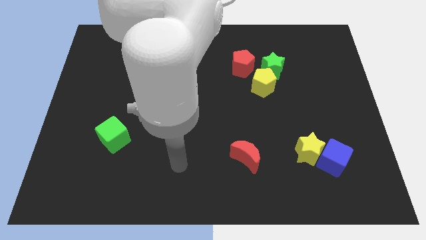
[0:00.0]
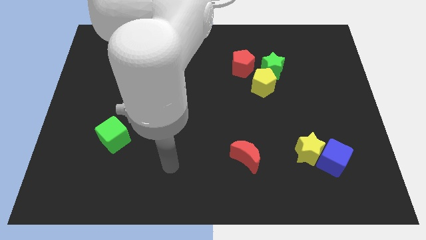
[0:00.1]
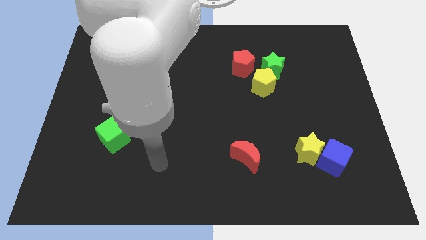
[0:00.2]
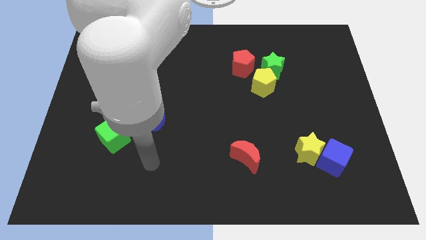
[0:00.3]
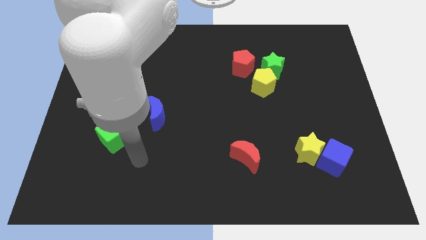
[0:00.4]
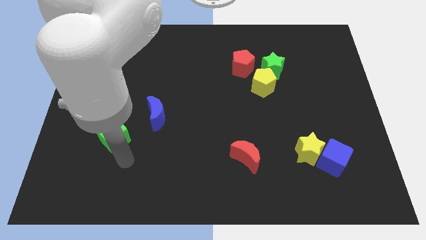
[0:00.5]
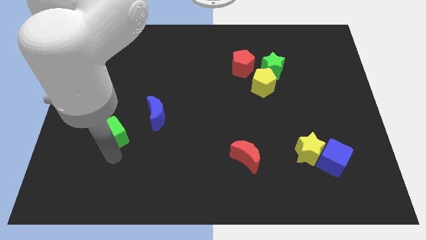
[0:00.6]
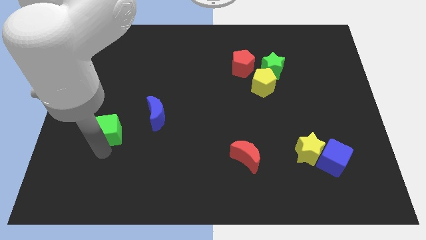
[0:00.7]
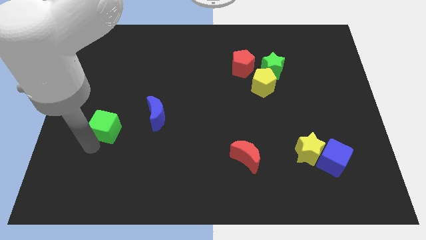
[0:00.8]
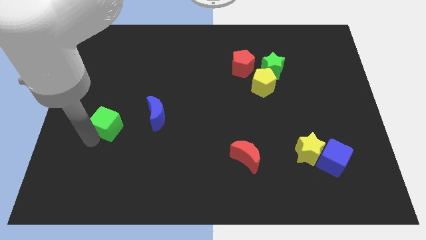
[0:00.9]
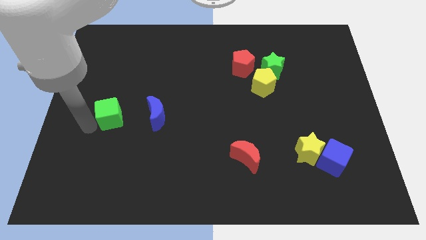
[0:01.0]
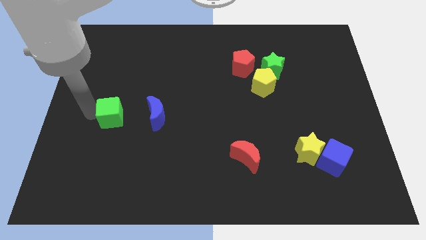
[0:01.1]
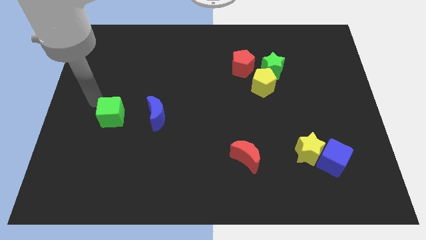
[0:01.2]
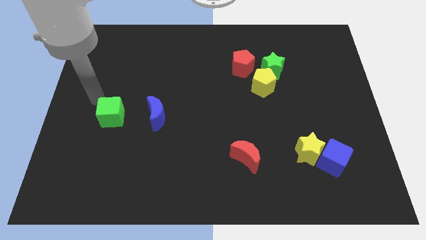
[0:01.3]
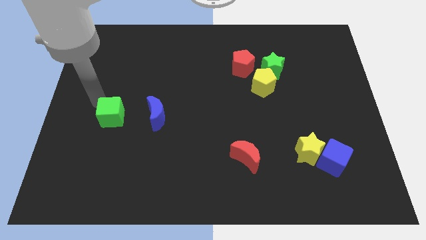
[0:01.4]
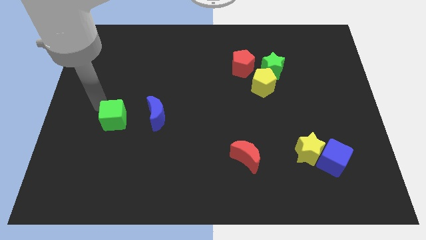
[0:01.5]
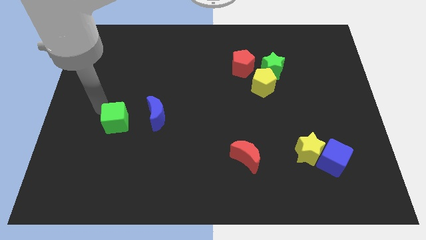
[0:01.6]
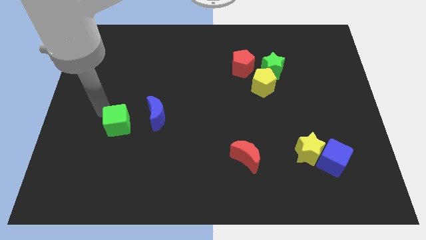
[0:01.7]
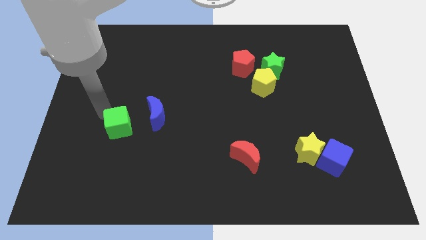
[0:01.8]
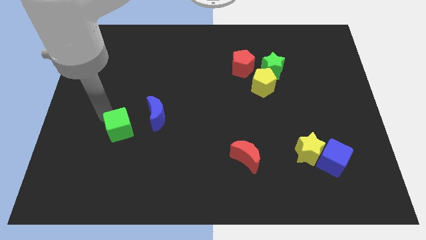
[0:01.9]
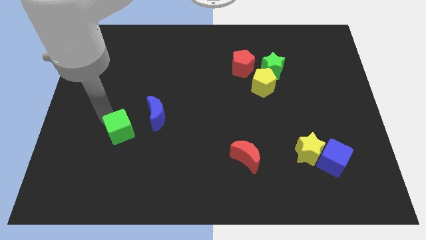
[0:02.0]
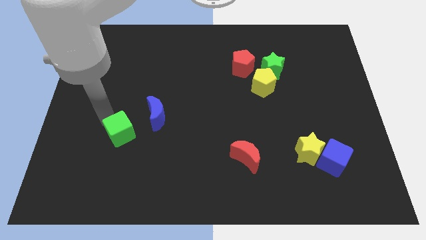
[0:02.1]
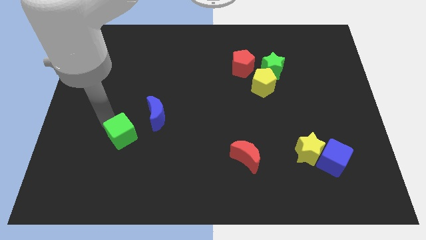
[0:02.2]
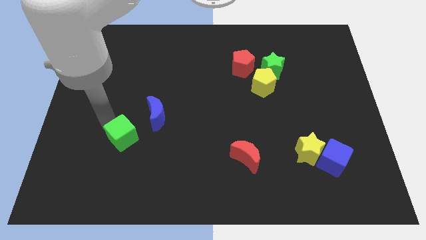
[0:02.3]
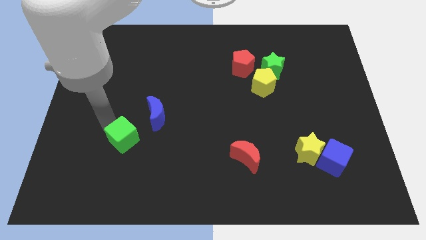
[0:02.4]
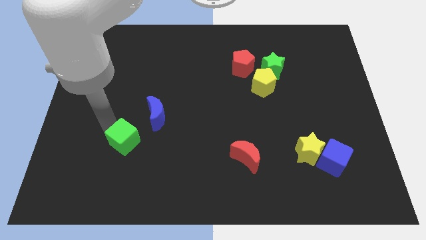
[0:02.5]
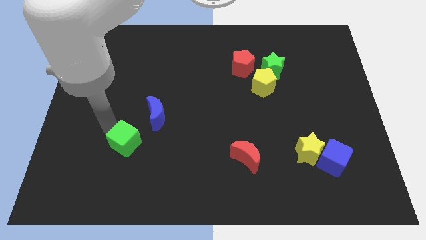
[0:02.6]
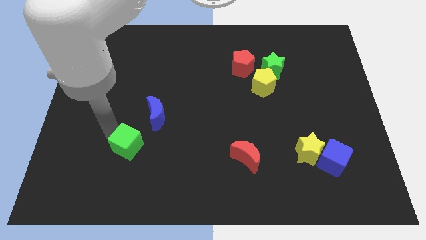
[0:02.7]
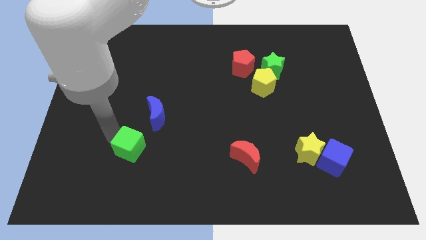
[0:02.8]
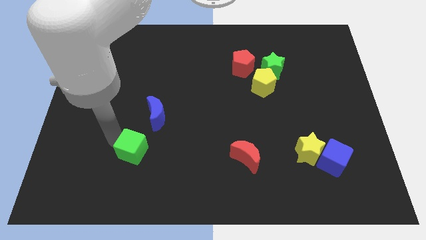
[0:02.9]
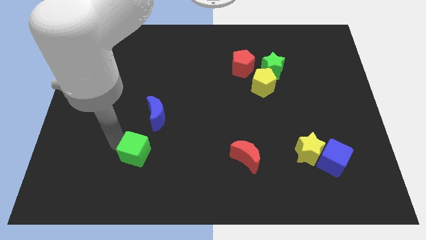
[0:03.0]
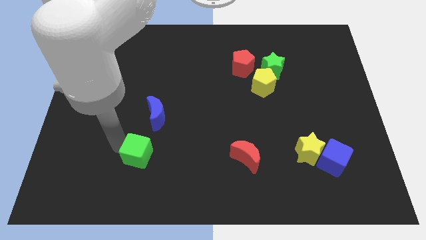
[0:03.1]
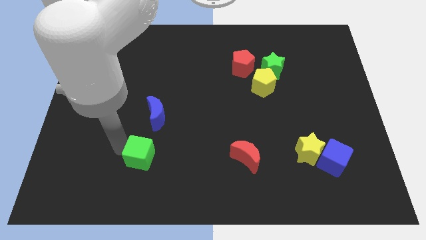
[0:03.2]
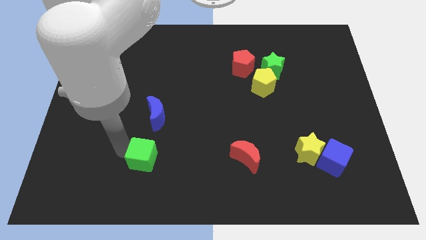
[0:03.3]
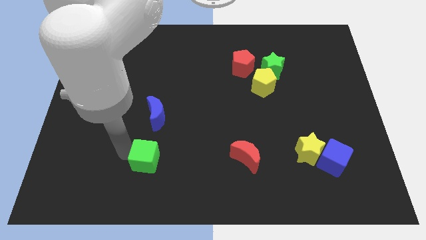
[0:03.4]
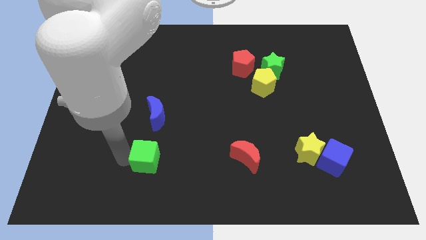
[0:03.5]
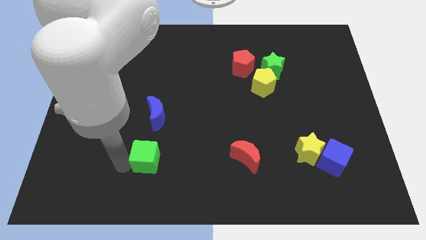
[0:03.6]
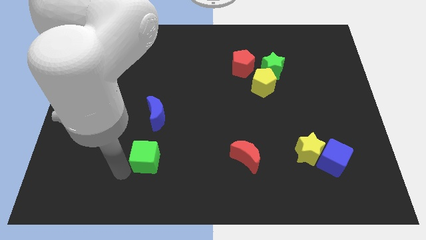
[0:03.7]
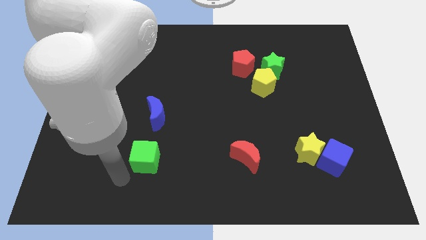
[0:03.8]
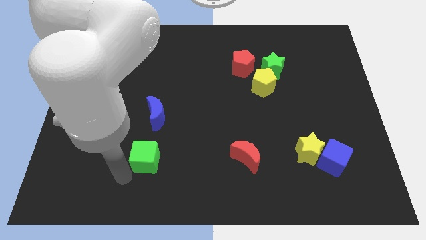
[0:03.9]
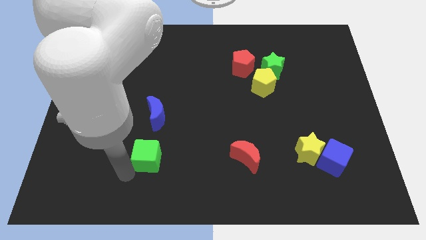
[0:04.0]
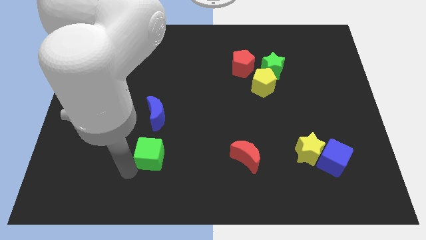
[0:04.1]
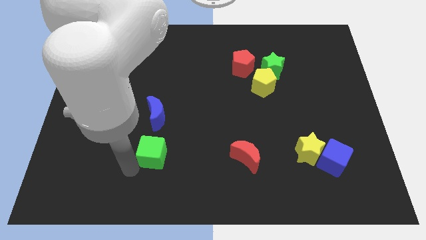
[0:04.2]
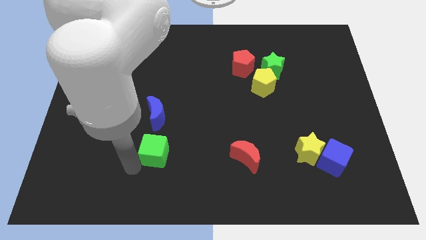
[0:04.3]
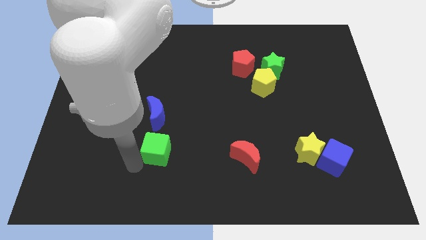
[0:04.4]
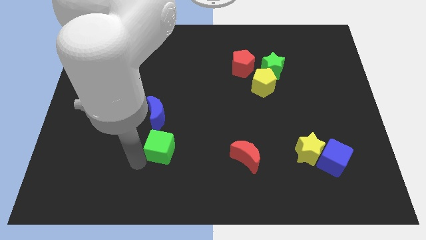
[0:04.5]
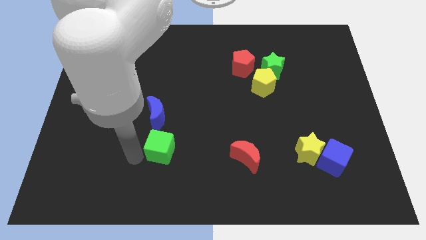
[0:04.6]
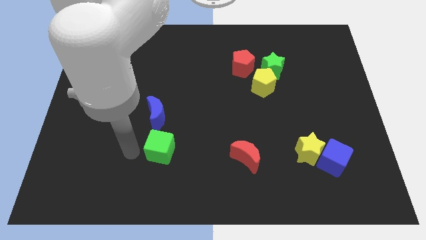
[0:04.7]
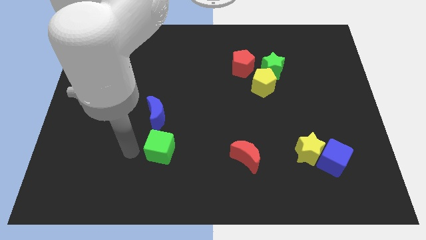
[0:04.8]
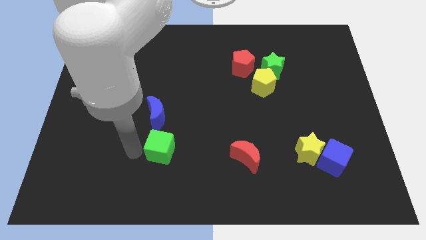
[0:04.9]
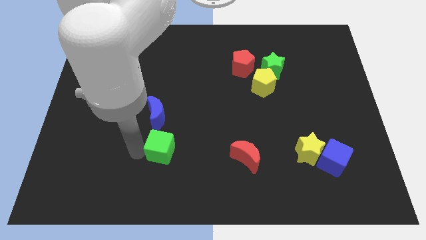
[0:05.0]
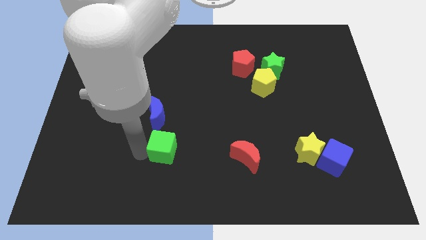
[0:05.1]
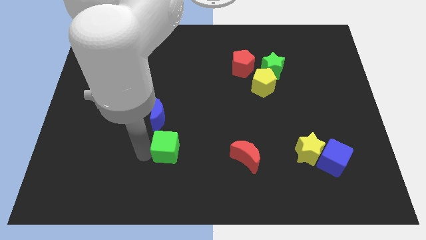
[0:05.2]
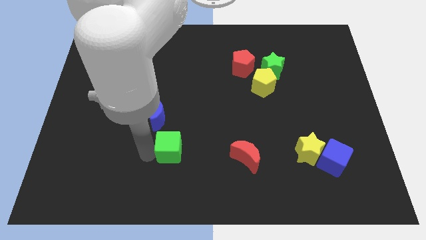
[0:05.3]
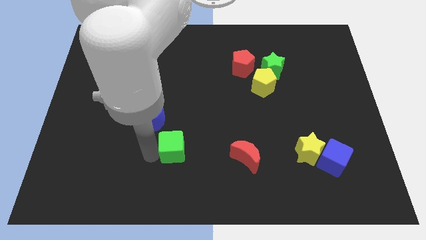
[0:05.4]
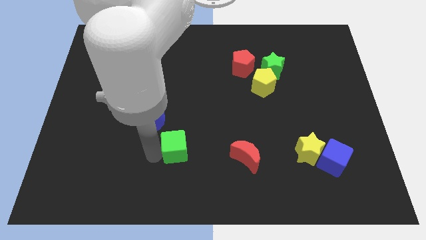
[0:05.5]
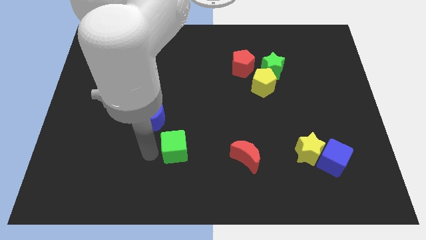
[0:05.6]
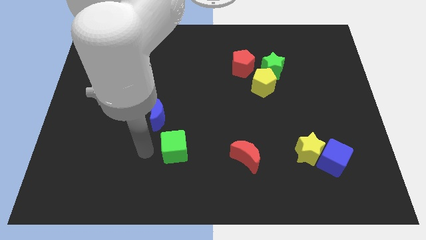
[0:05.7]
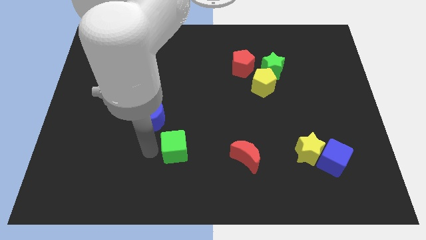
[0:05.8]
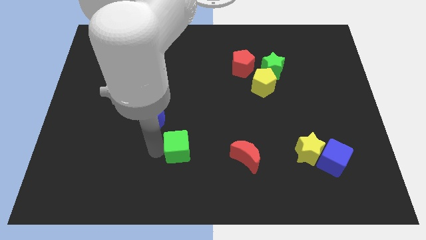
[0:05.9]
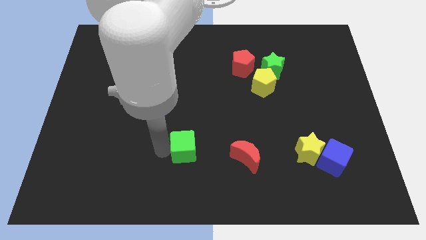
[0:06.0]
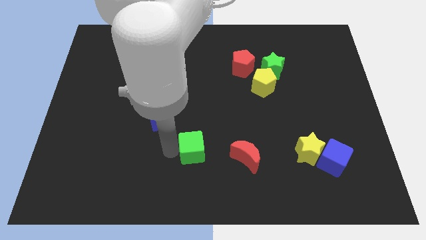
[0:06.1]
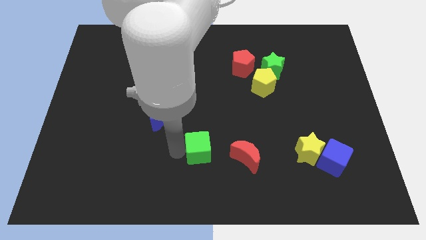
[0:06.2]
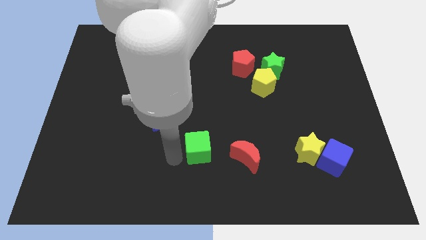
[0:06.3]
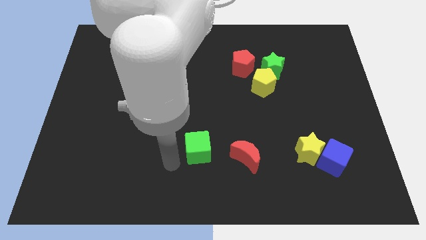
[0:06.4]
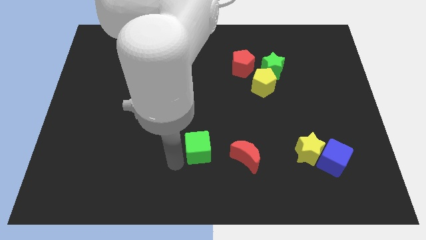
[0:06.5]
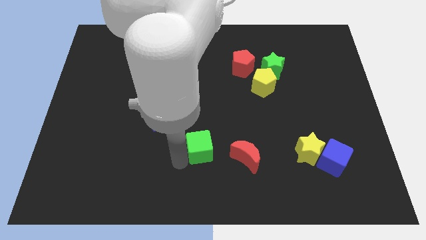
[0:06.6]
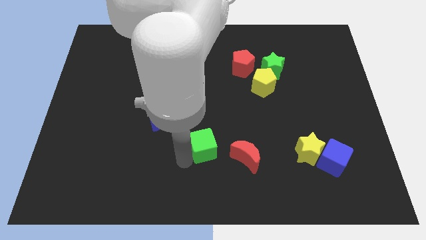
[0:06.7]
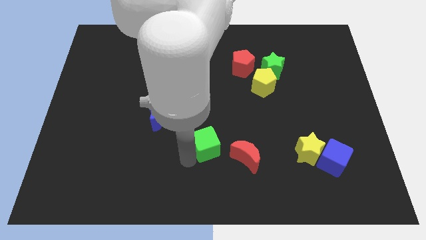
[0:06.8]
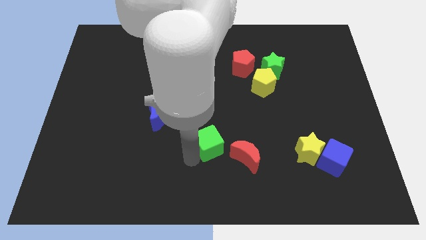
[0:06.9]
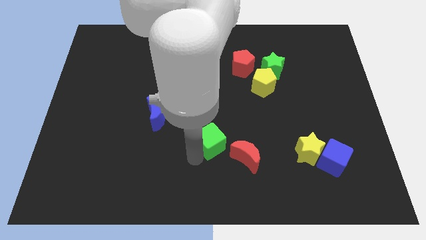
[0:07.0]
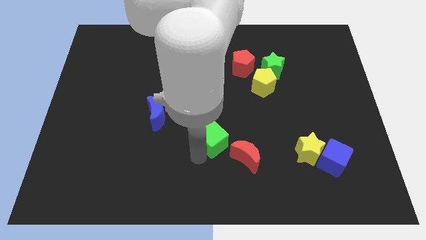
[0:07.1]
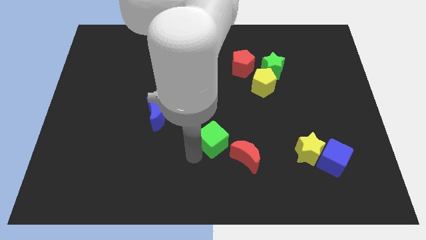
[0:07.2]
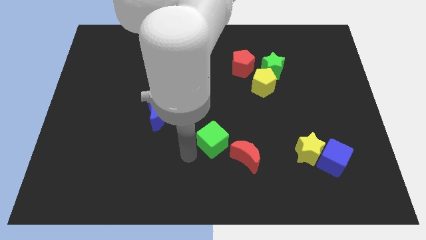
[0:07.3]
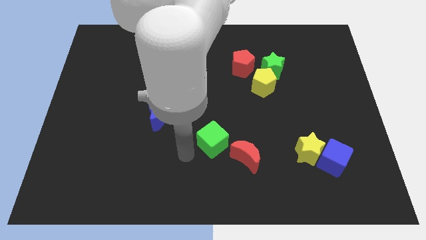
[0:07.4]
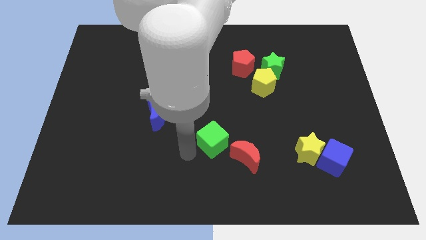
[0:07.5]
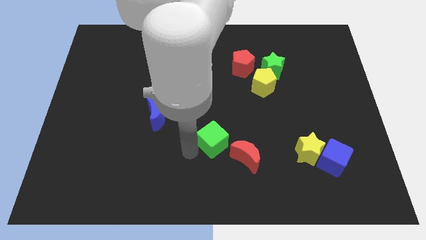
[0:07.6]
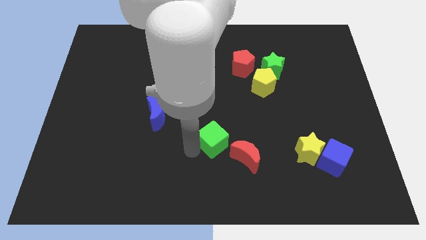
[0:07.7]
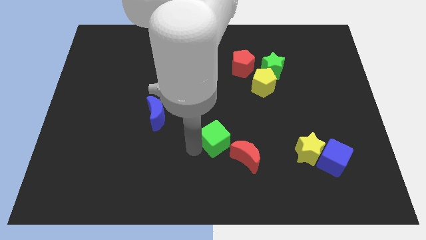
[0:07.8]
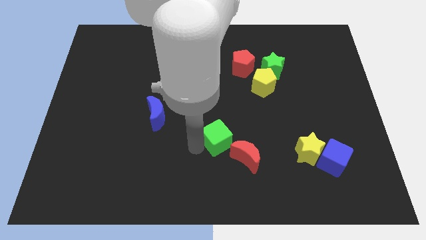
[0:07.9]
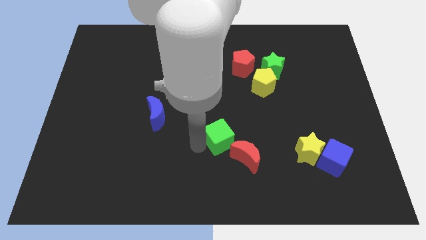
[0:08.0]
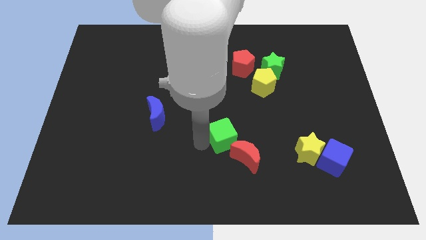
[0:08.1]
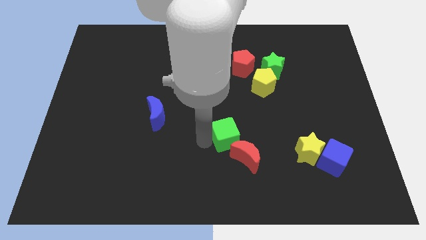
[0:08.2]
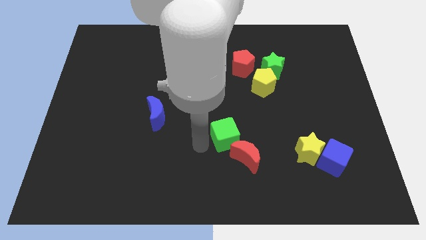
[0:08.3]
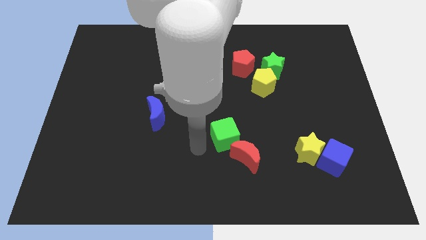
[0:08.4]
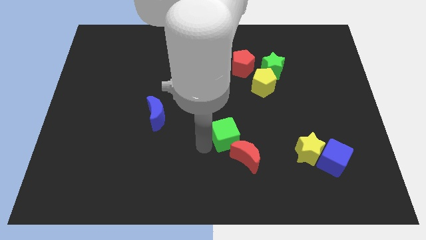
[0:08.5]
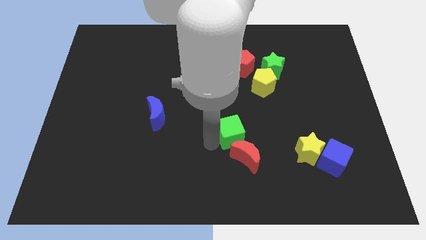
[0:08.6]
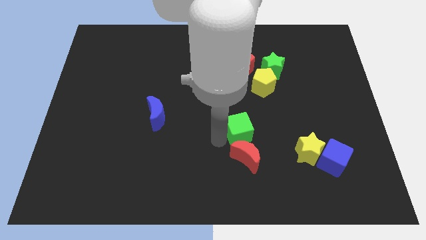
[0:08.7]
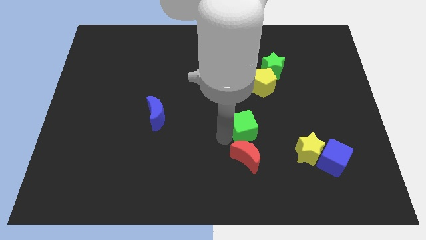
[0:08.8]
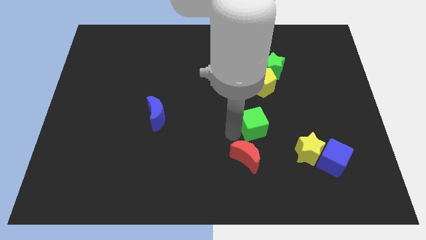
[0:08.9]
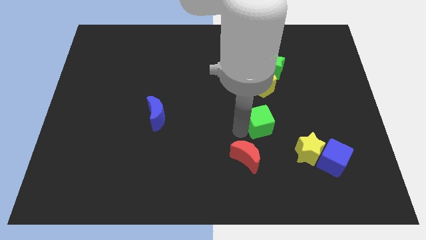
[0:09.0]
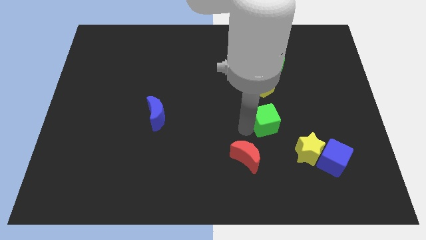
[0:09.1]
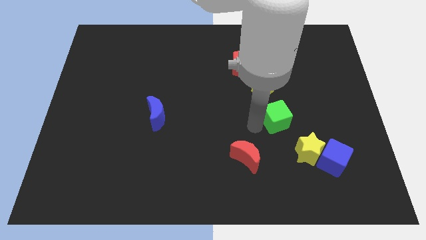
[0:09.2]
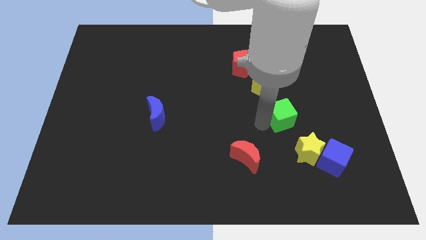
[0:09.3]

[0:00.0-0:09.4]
slide the green cube to the top of the yellow star
